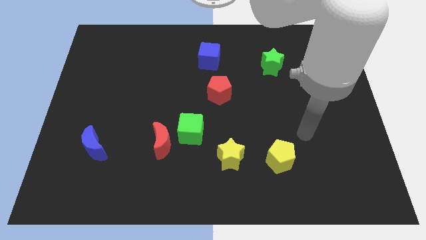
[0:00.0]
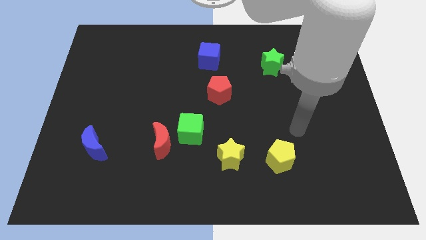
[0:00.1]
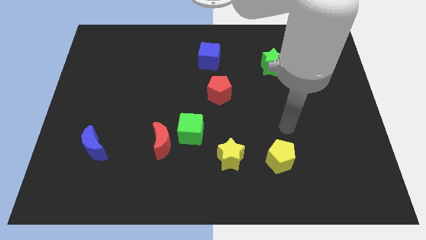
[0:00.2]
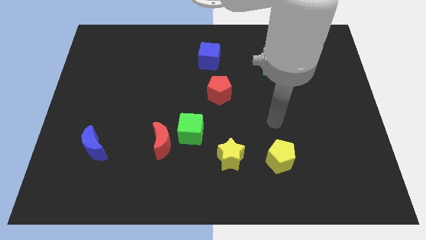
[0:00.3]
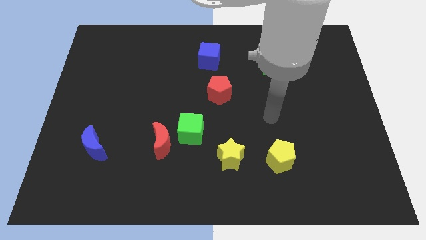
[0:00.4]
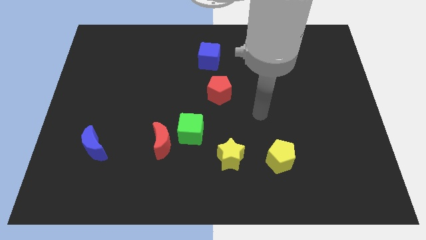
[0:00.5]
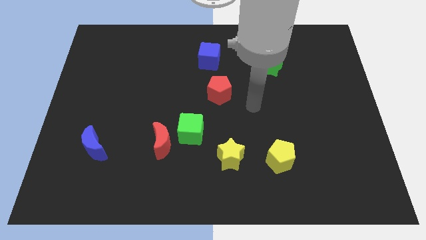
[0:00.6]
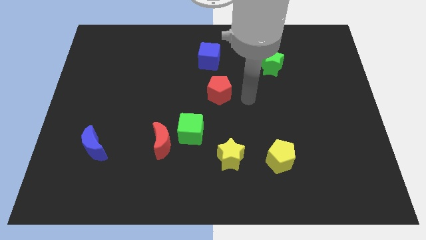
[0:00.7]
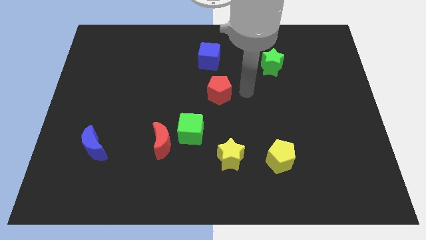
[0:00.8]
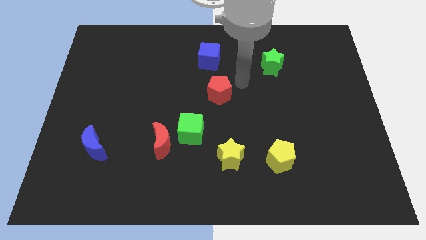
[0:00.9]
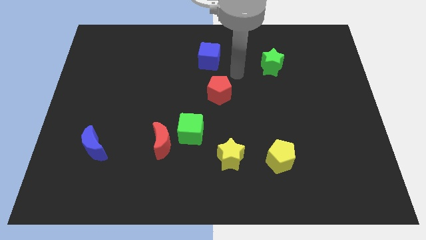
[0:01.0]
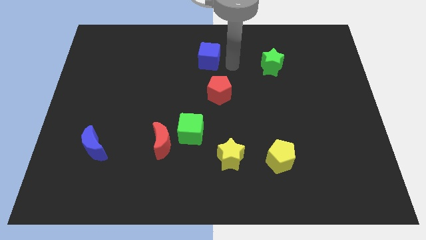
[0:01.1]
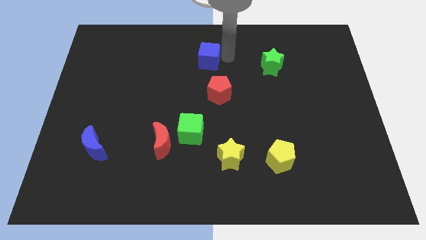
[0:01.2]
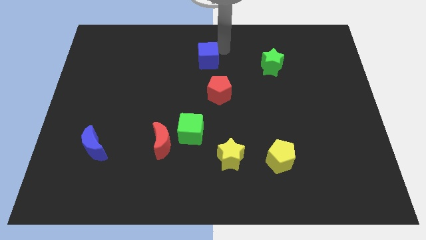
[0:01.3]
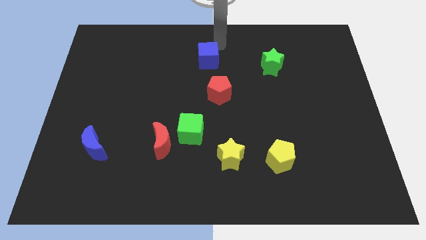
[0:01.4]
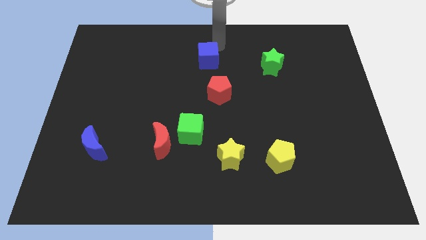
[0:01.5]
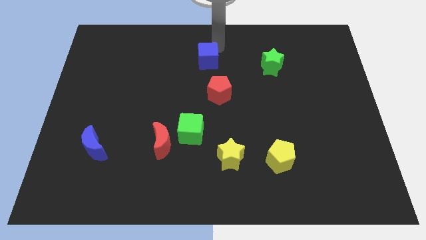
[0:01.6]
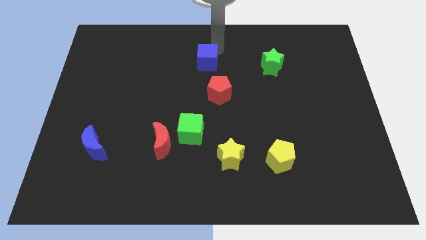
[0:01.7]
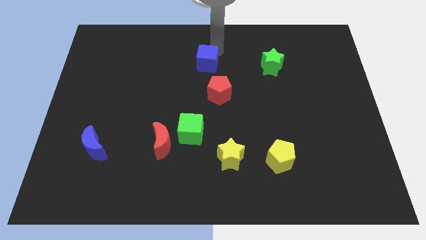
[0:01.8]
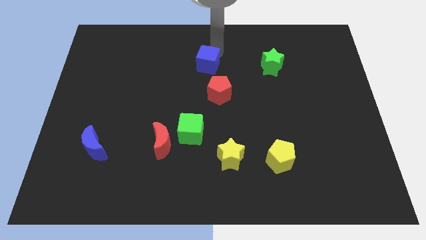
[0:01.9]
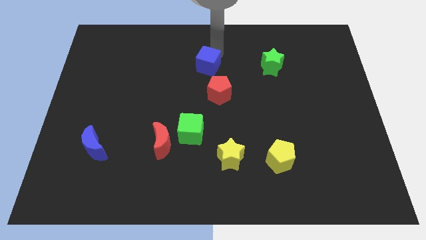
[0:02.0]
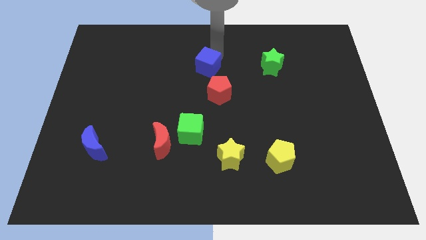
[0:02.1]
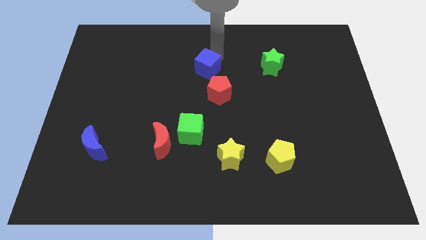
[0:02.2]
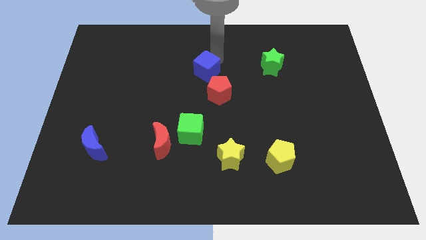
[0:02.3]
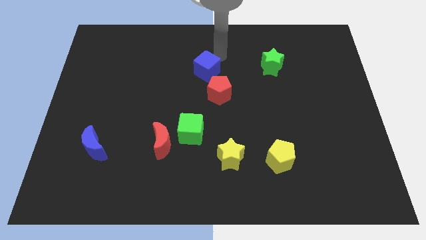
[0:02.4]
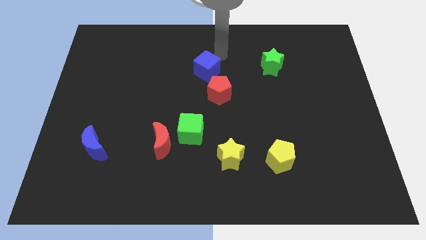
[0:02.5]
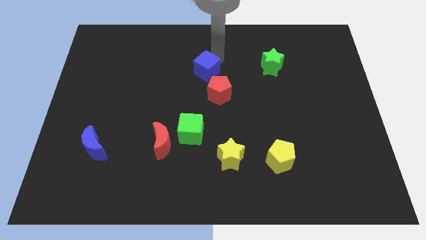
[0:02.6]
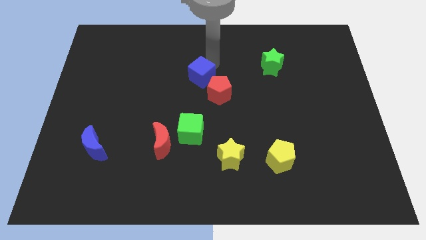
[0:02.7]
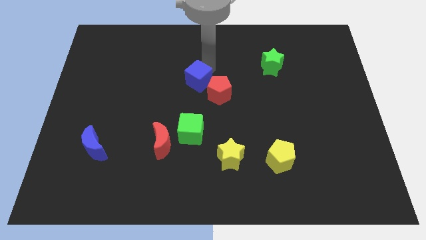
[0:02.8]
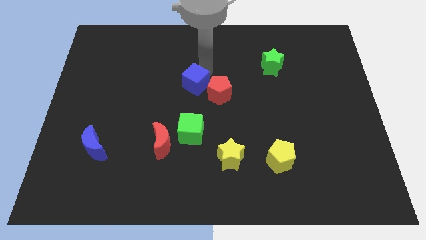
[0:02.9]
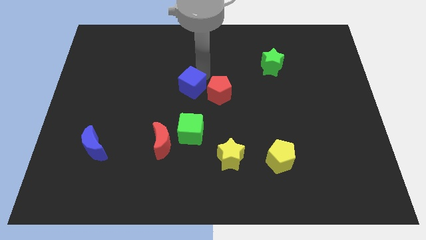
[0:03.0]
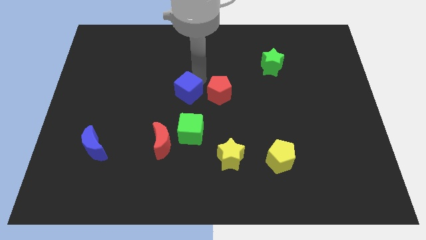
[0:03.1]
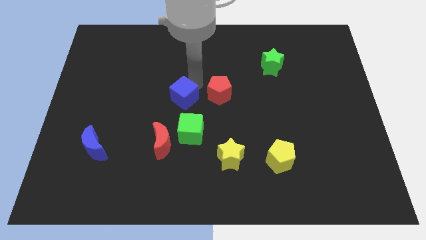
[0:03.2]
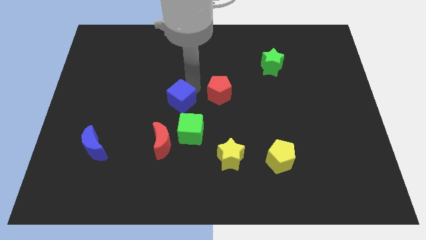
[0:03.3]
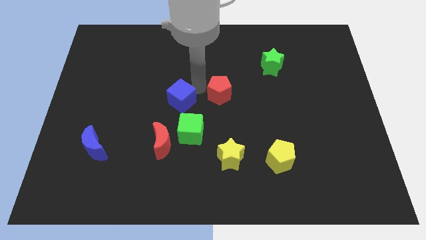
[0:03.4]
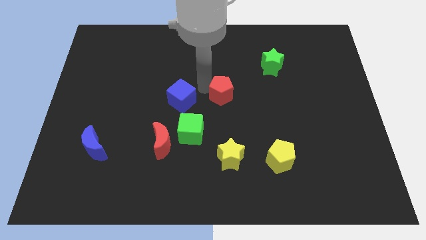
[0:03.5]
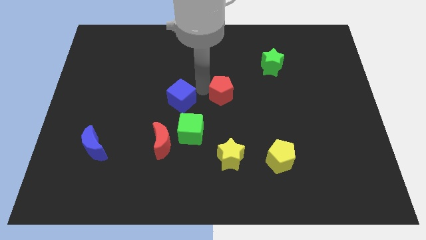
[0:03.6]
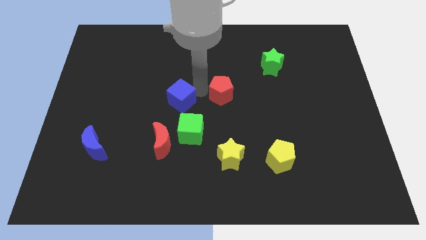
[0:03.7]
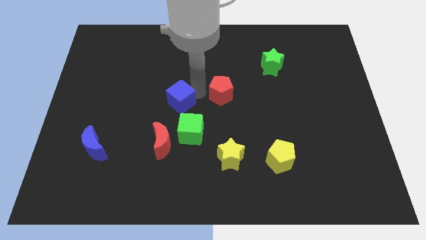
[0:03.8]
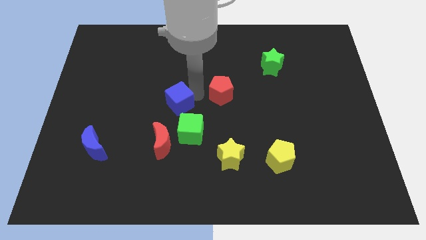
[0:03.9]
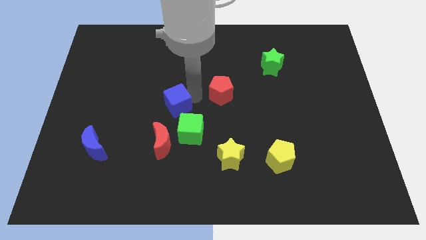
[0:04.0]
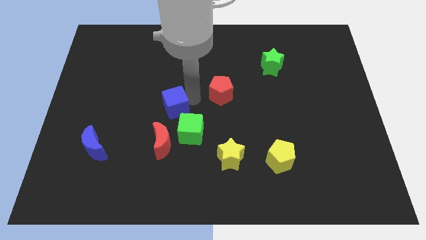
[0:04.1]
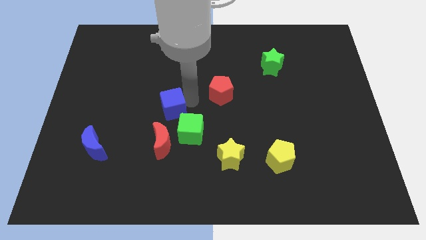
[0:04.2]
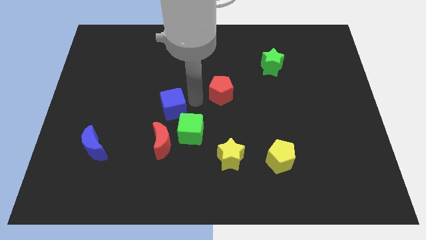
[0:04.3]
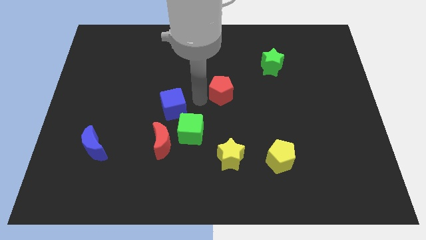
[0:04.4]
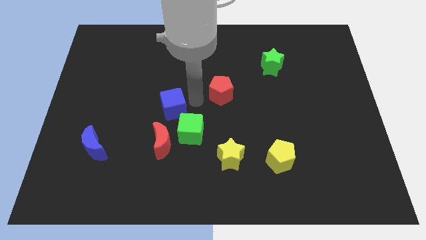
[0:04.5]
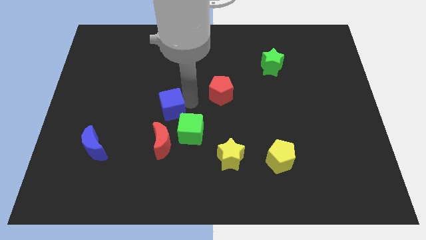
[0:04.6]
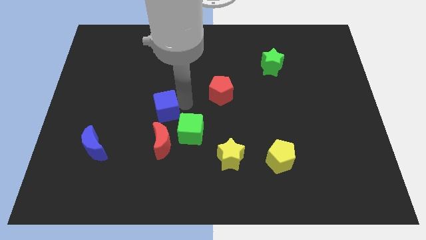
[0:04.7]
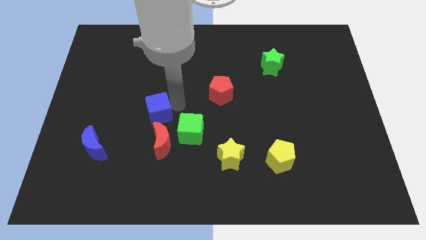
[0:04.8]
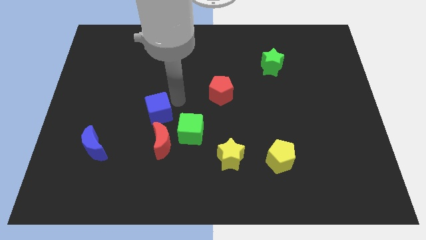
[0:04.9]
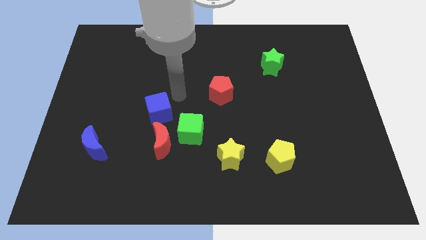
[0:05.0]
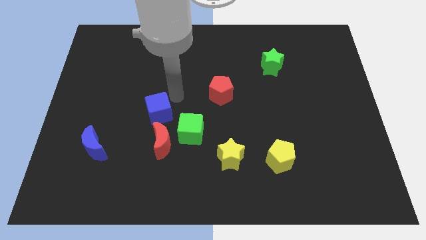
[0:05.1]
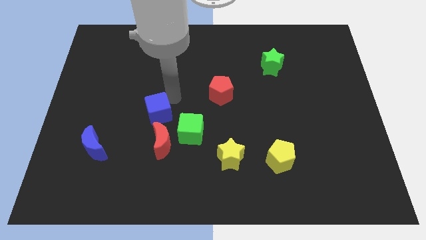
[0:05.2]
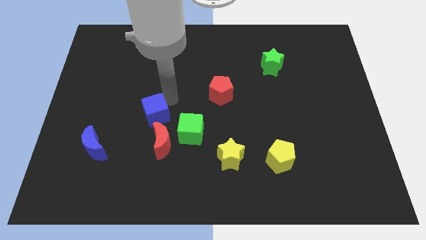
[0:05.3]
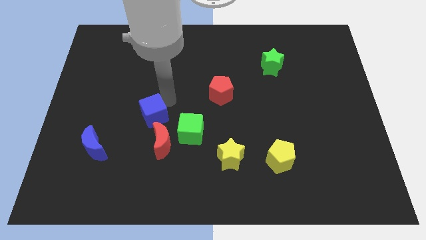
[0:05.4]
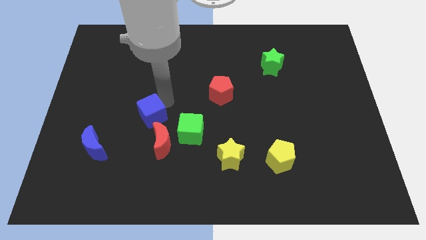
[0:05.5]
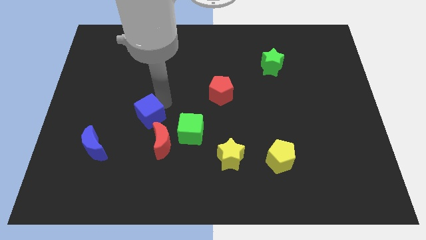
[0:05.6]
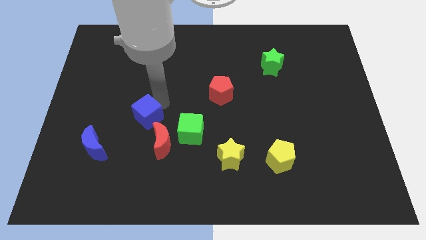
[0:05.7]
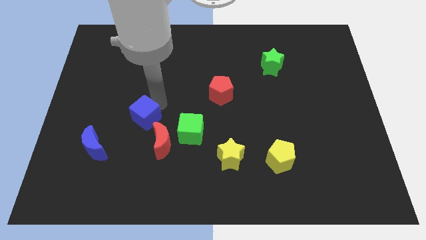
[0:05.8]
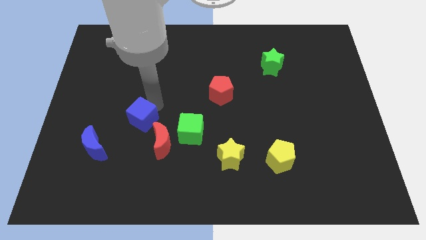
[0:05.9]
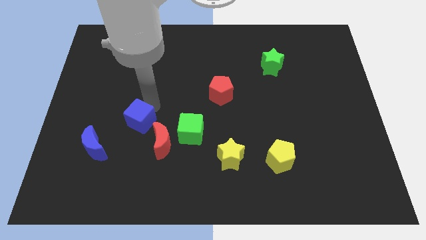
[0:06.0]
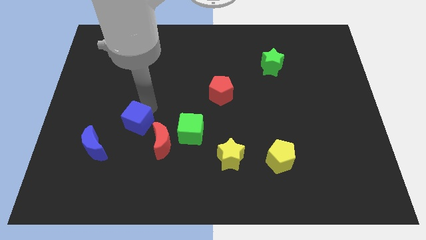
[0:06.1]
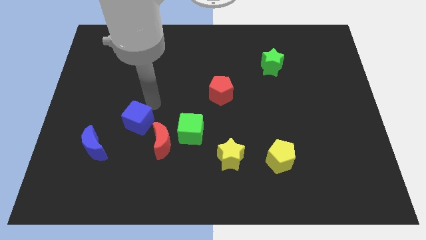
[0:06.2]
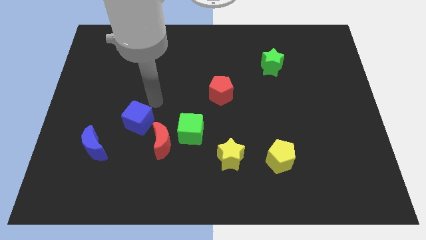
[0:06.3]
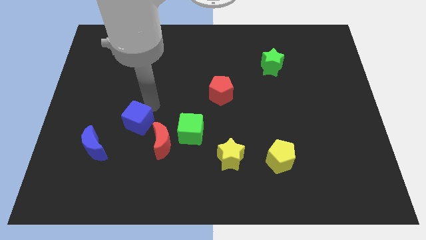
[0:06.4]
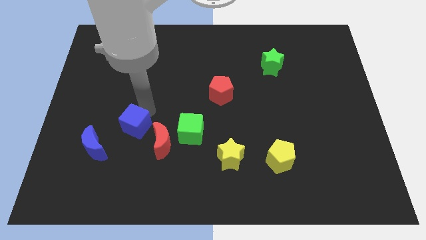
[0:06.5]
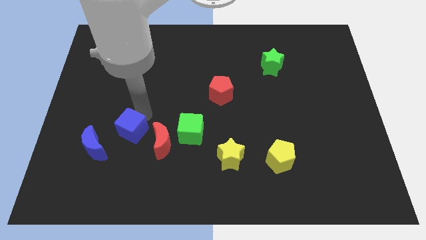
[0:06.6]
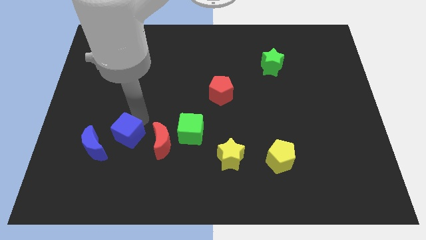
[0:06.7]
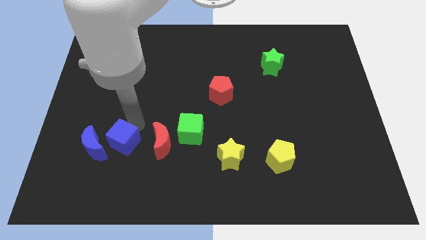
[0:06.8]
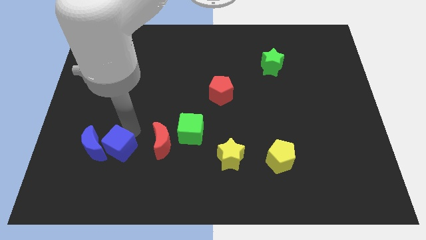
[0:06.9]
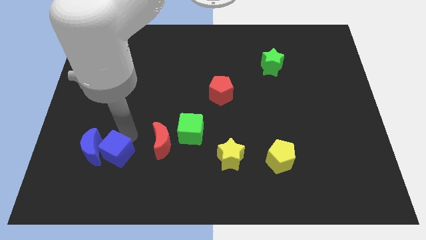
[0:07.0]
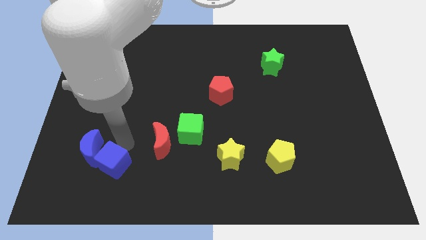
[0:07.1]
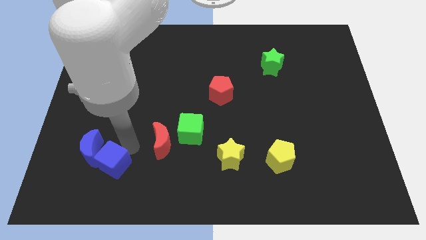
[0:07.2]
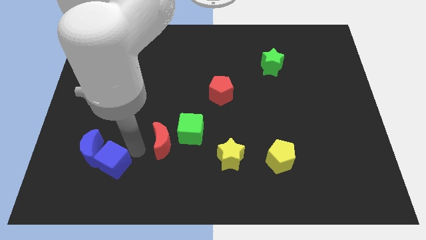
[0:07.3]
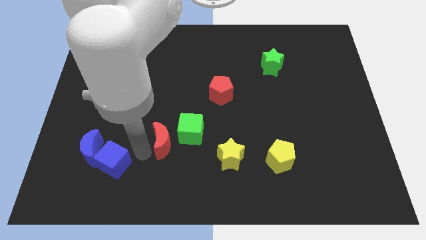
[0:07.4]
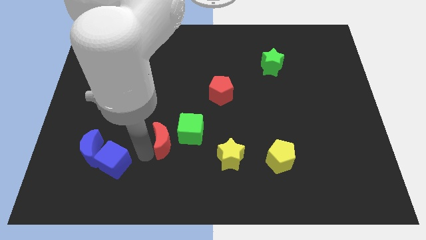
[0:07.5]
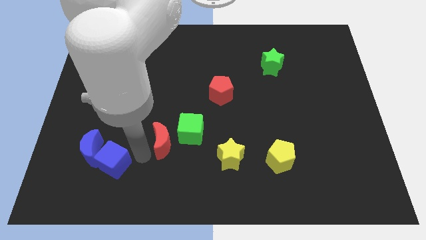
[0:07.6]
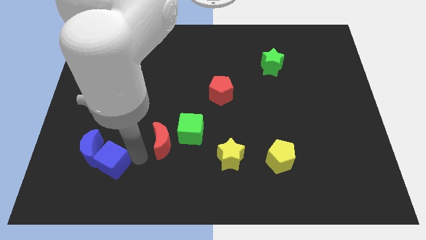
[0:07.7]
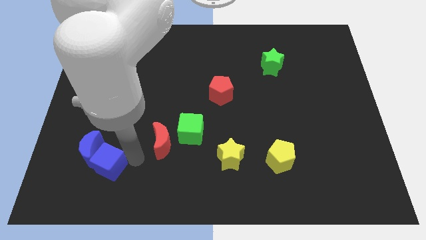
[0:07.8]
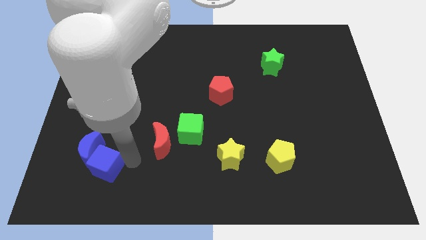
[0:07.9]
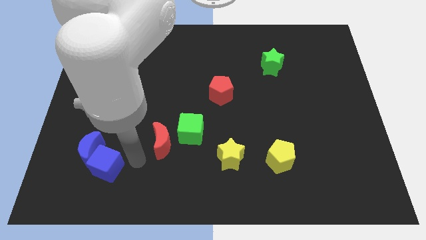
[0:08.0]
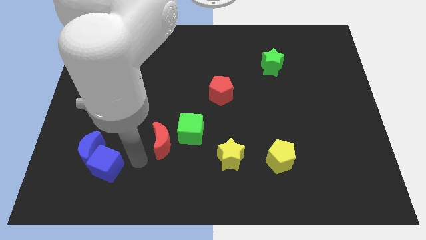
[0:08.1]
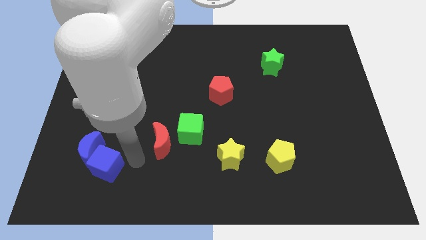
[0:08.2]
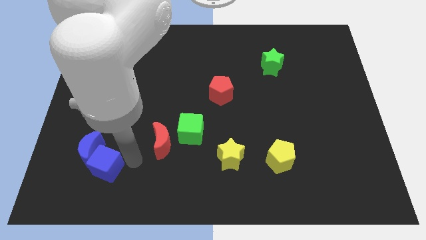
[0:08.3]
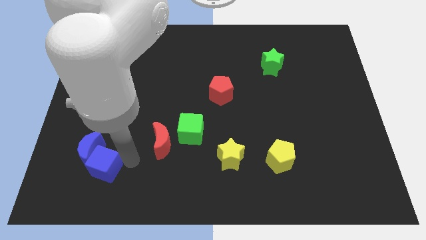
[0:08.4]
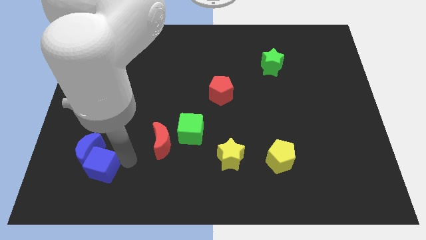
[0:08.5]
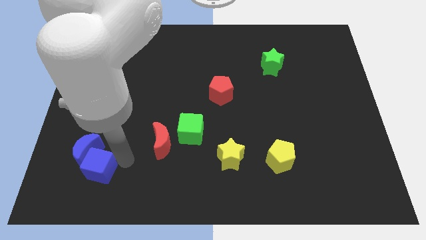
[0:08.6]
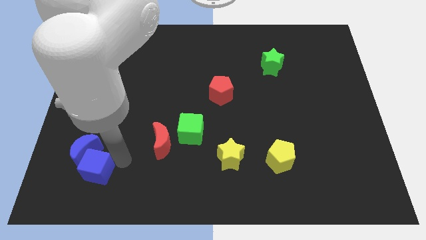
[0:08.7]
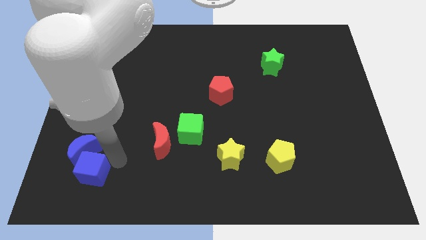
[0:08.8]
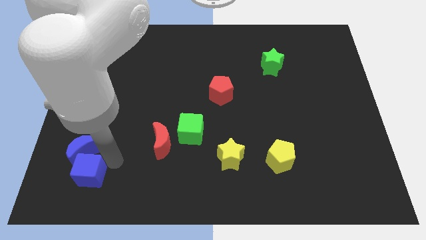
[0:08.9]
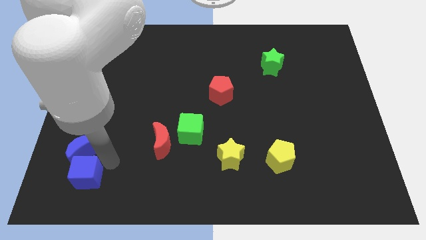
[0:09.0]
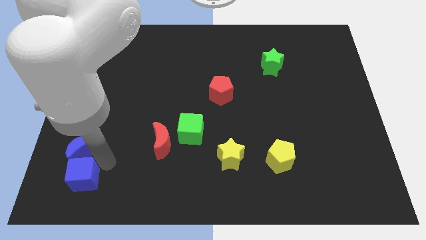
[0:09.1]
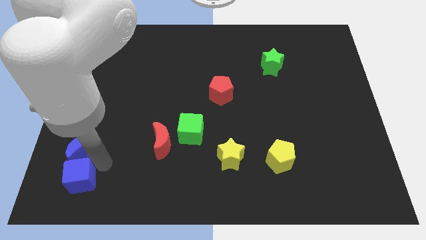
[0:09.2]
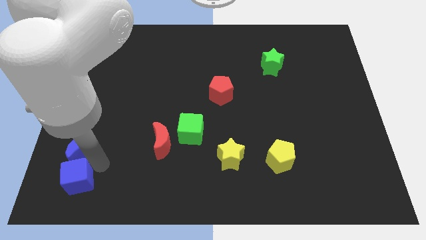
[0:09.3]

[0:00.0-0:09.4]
slide the blue cube to the bottom left of the board
